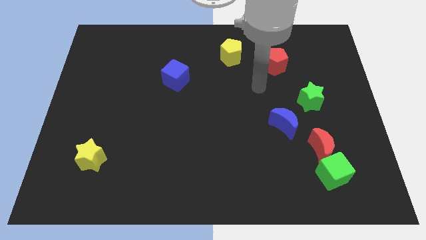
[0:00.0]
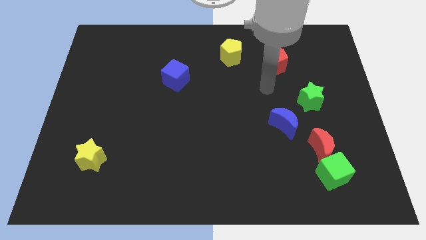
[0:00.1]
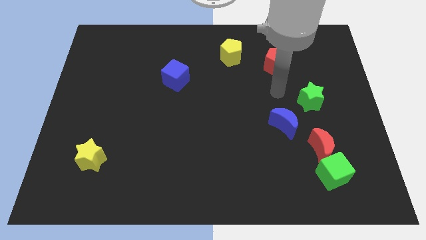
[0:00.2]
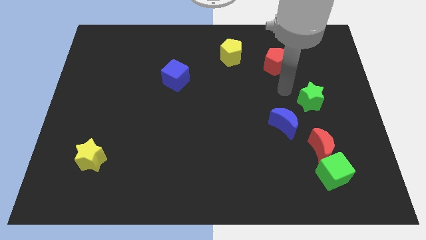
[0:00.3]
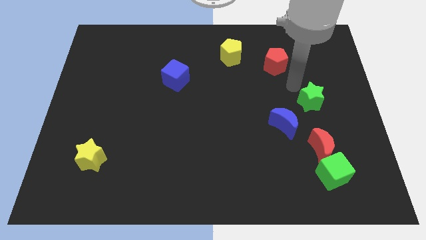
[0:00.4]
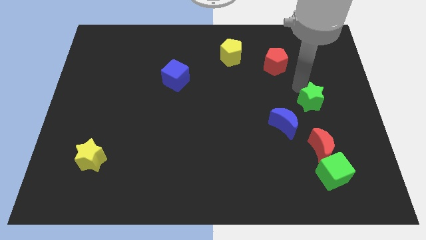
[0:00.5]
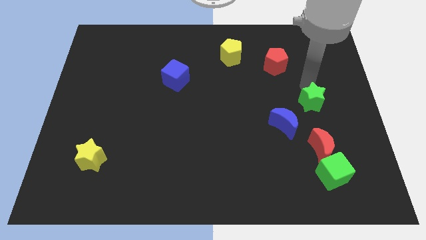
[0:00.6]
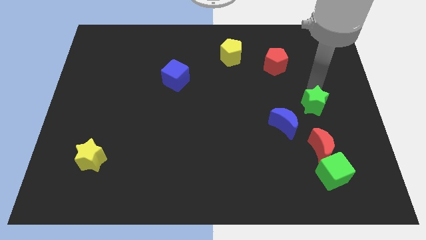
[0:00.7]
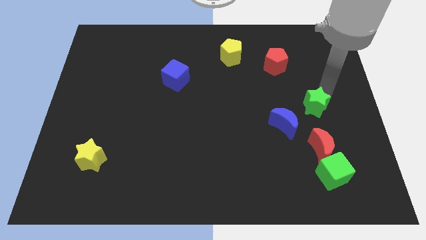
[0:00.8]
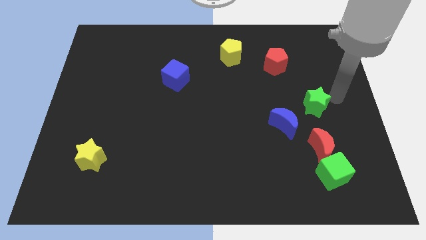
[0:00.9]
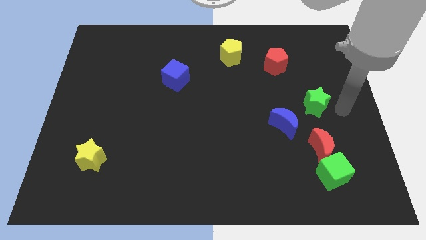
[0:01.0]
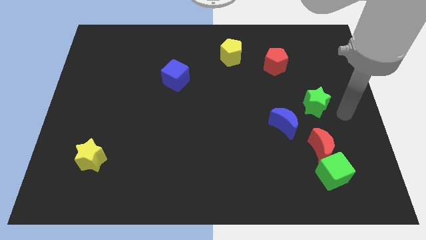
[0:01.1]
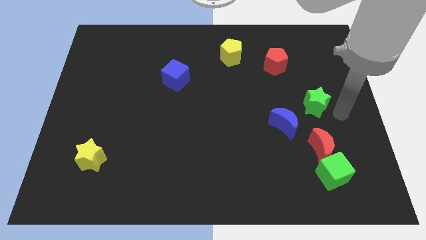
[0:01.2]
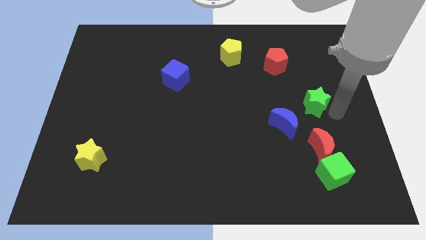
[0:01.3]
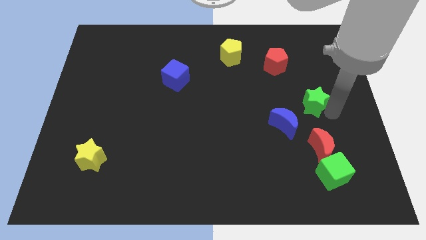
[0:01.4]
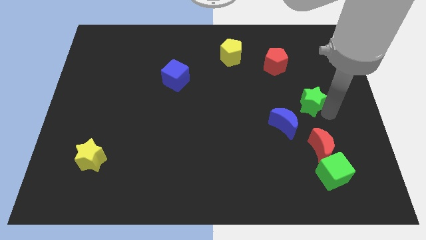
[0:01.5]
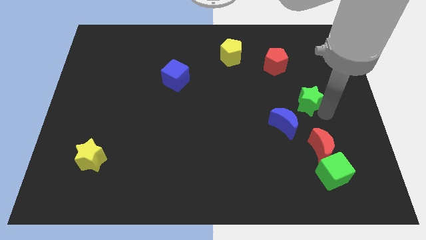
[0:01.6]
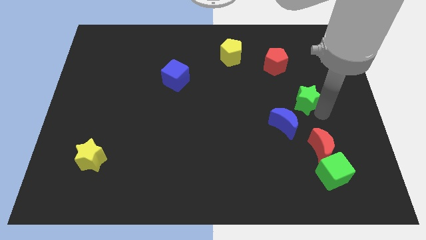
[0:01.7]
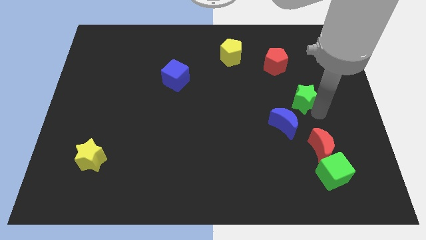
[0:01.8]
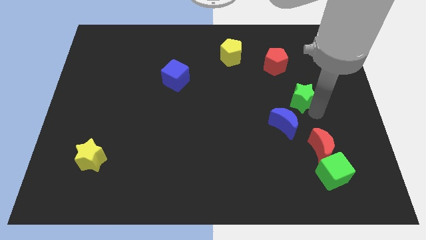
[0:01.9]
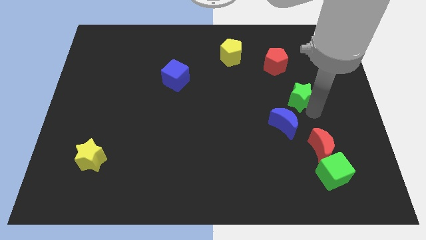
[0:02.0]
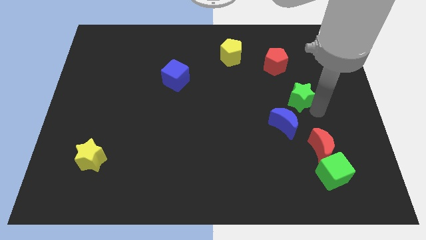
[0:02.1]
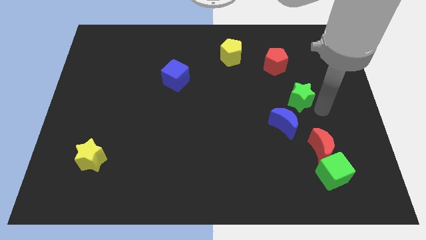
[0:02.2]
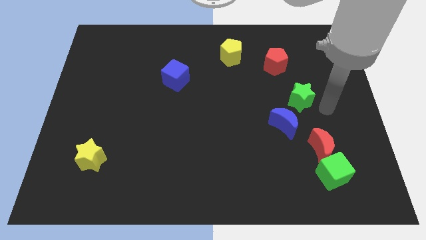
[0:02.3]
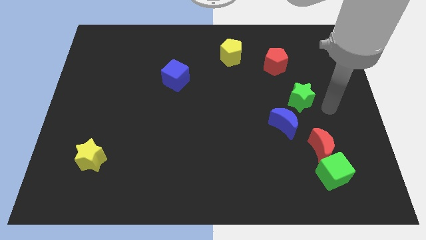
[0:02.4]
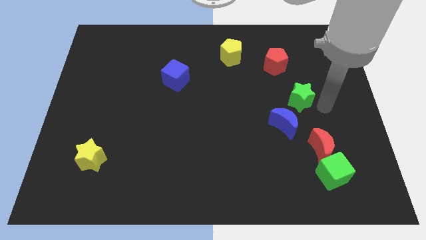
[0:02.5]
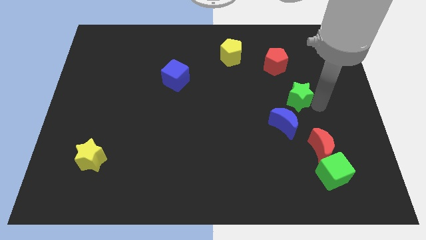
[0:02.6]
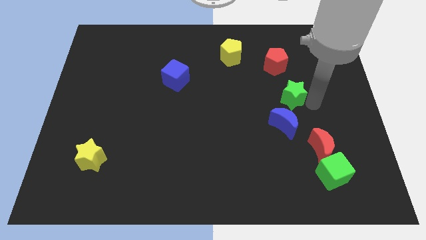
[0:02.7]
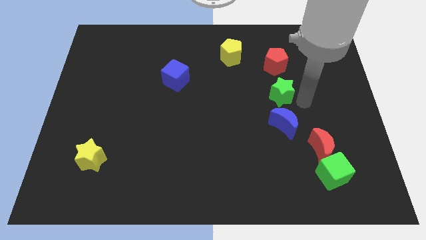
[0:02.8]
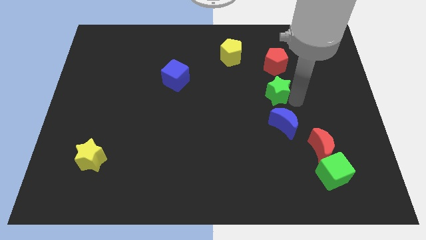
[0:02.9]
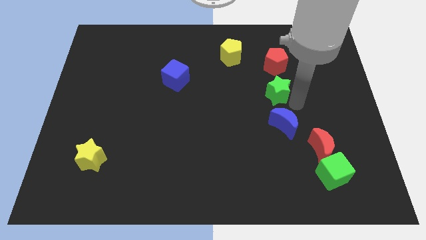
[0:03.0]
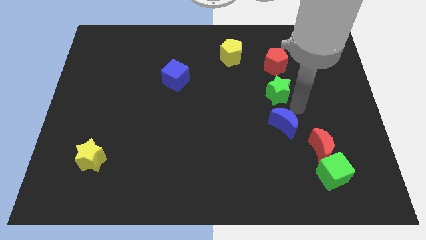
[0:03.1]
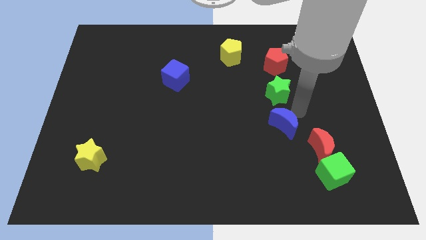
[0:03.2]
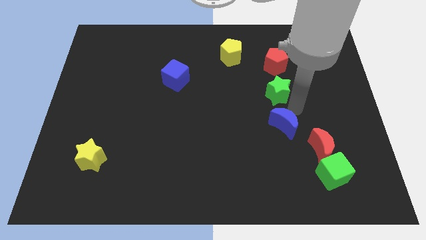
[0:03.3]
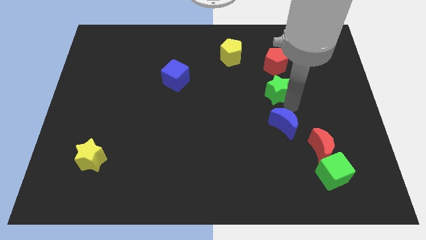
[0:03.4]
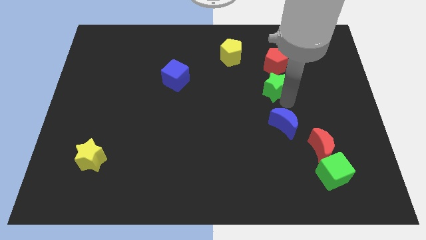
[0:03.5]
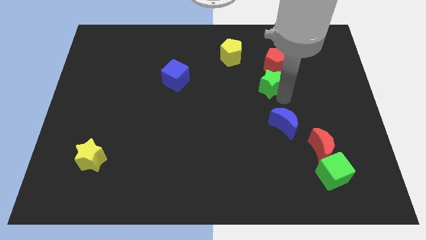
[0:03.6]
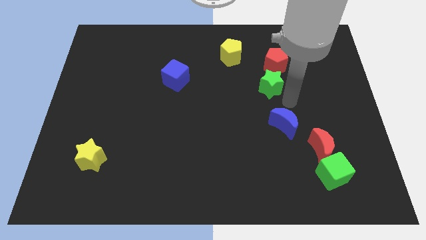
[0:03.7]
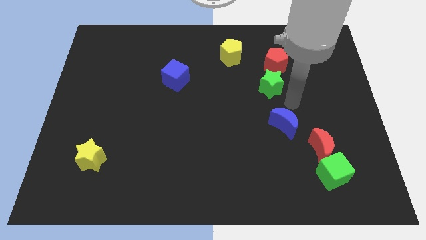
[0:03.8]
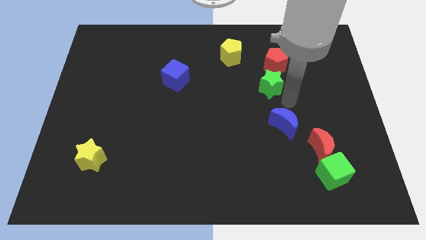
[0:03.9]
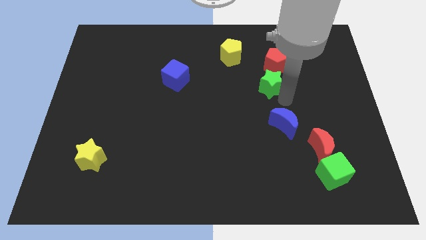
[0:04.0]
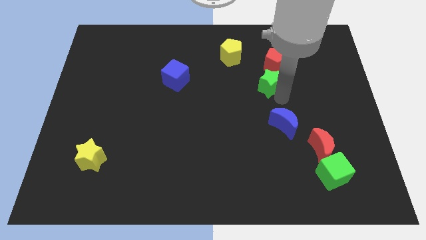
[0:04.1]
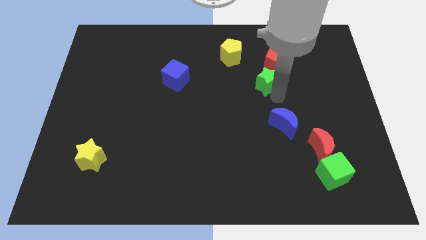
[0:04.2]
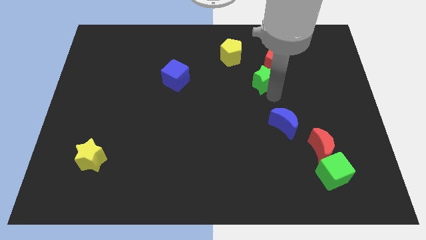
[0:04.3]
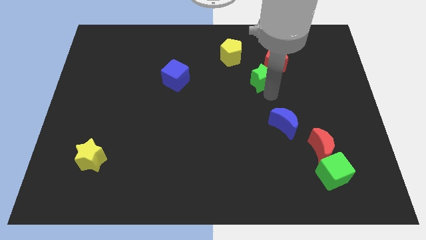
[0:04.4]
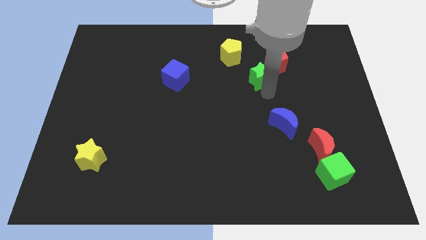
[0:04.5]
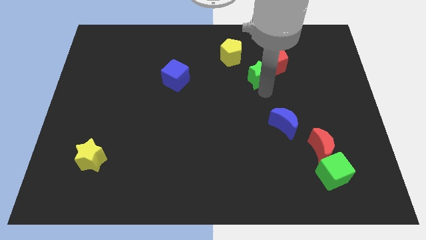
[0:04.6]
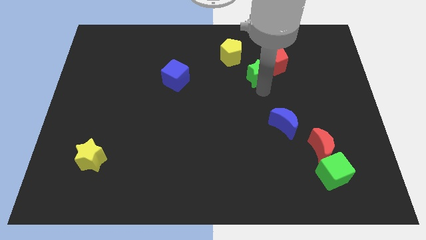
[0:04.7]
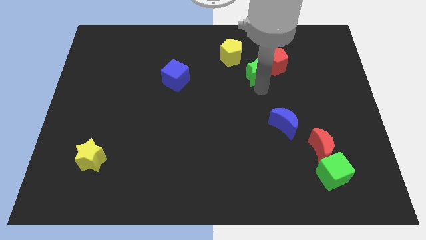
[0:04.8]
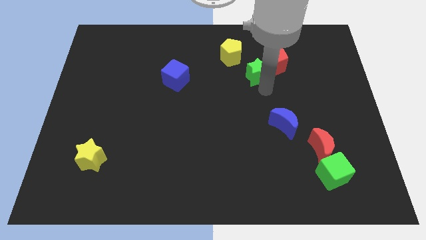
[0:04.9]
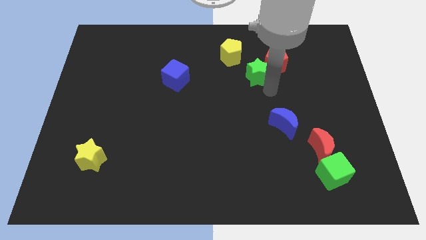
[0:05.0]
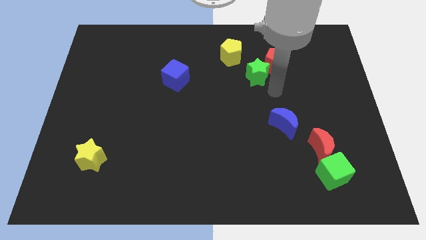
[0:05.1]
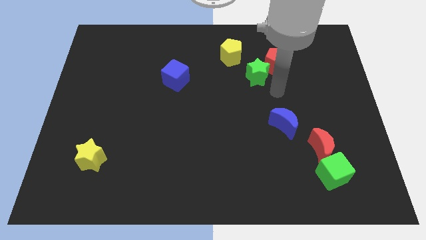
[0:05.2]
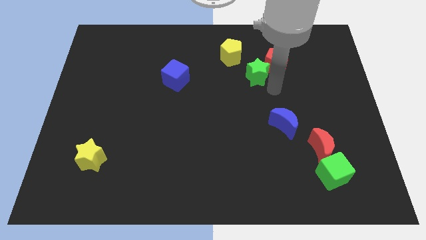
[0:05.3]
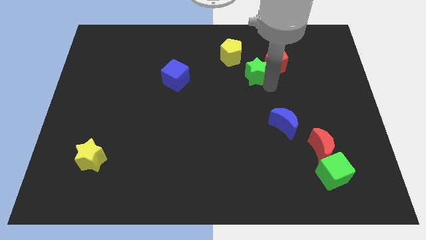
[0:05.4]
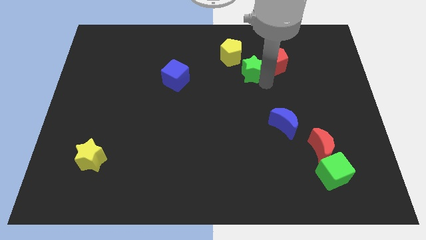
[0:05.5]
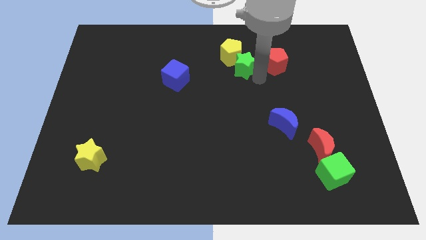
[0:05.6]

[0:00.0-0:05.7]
move the green star towards the yellow pentagon

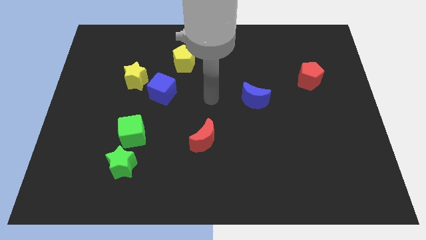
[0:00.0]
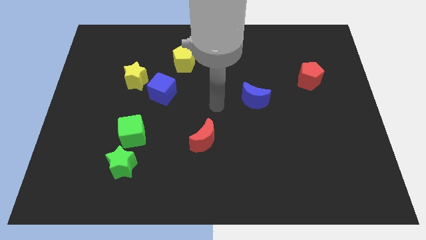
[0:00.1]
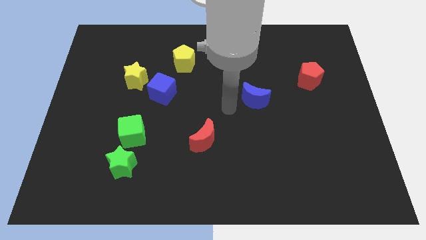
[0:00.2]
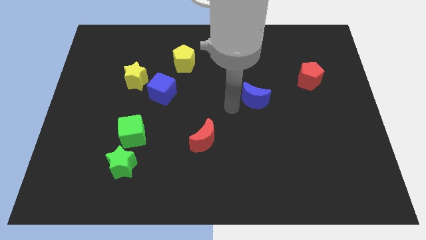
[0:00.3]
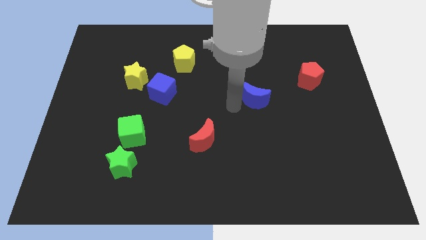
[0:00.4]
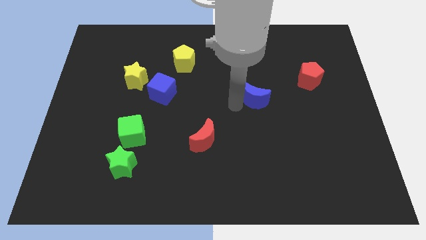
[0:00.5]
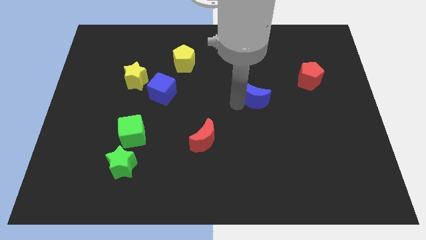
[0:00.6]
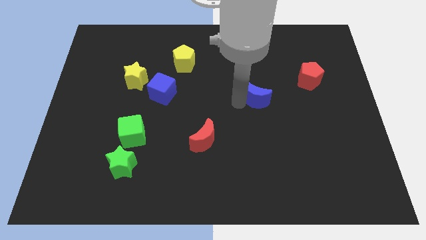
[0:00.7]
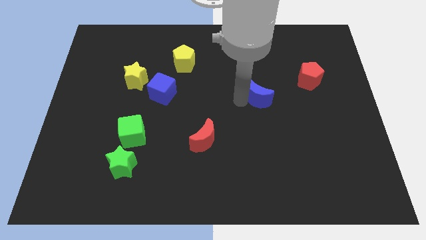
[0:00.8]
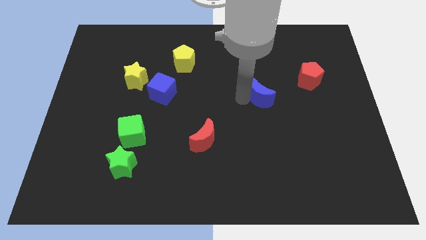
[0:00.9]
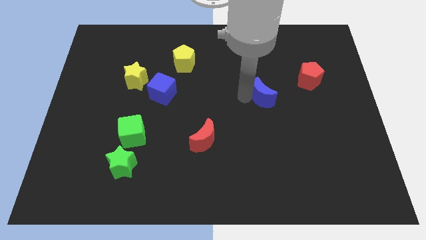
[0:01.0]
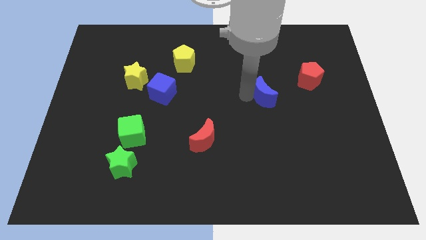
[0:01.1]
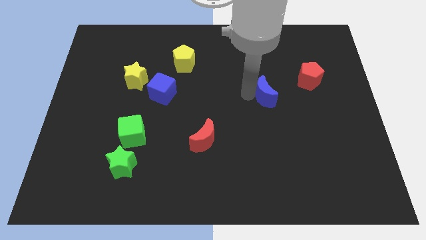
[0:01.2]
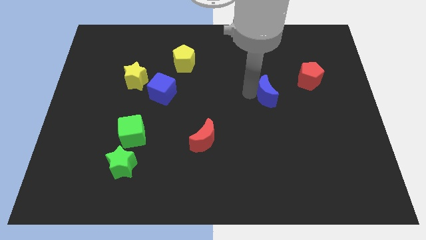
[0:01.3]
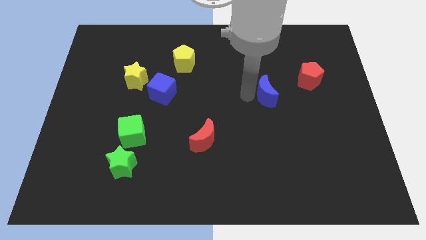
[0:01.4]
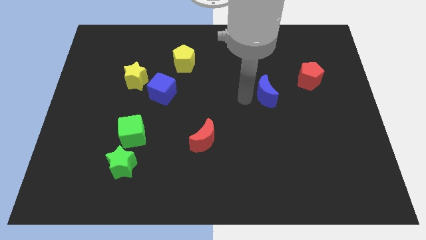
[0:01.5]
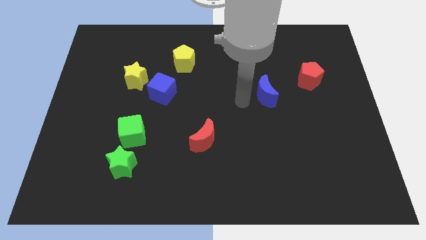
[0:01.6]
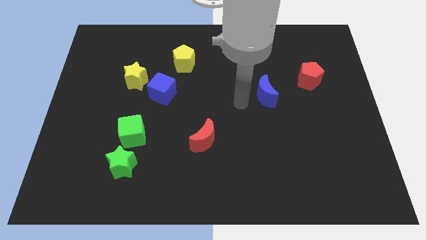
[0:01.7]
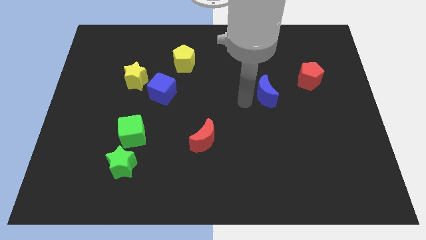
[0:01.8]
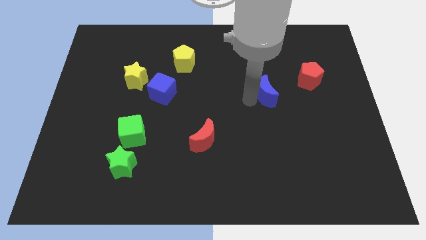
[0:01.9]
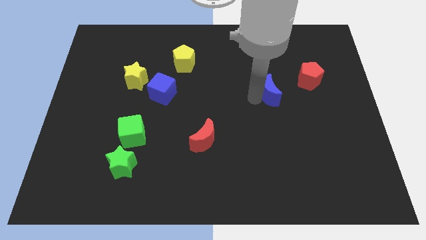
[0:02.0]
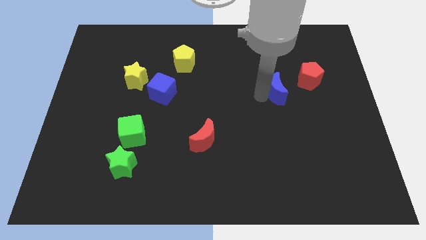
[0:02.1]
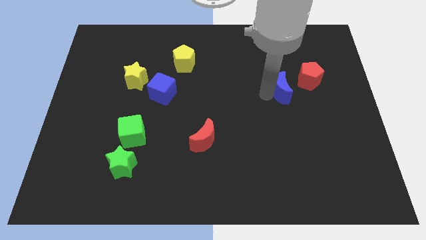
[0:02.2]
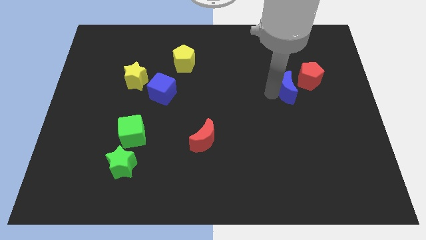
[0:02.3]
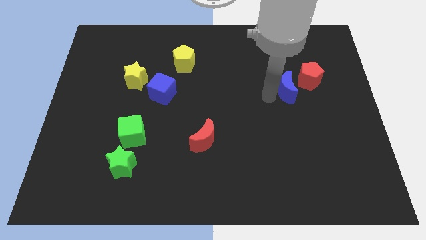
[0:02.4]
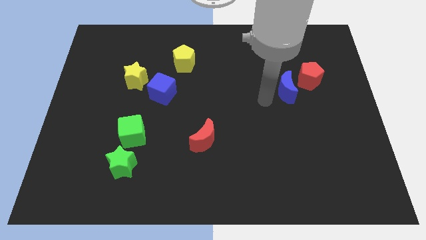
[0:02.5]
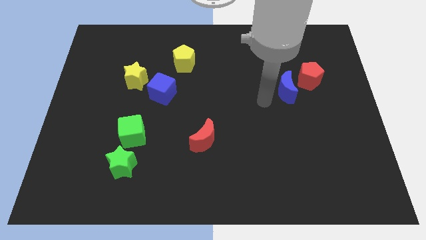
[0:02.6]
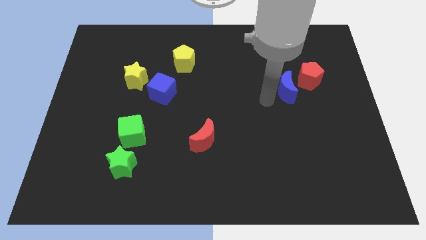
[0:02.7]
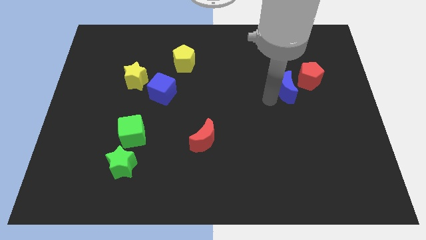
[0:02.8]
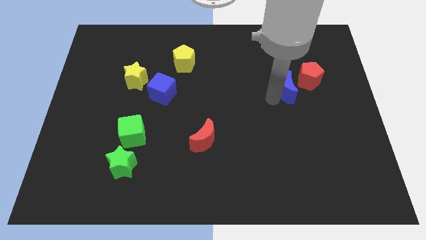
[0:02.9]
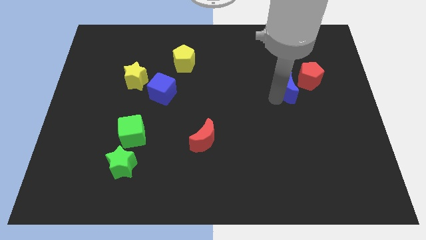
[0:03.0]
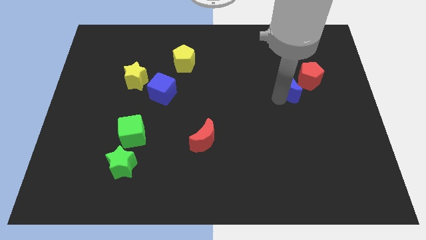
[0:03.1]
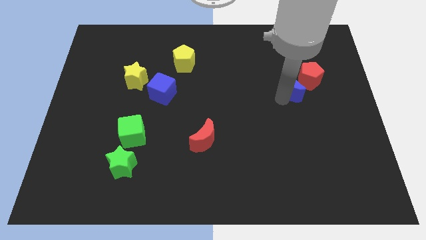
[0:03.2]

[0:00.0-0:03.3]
move the blue moon close to the red pentagon
